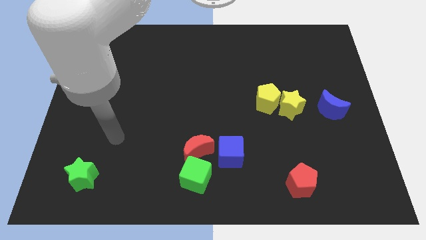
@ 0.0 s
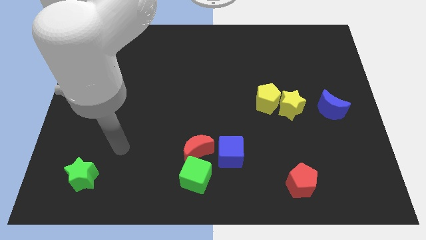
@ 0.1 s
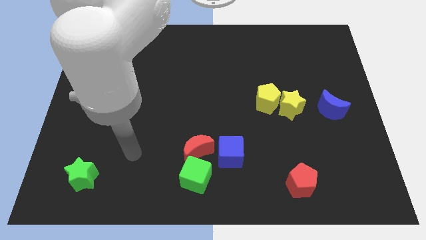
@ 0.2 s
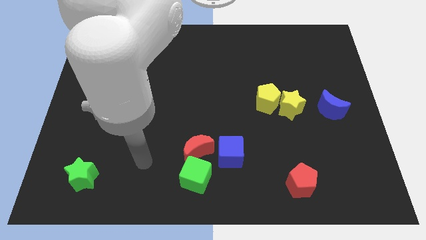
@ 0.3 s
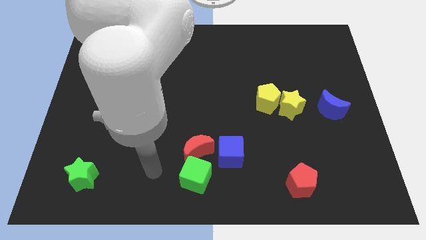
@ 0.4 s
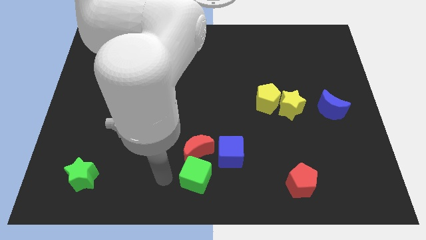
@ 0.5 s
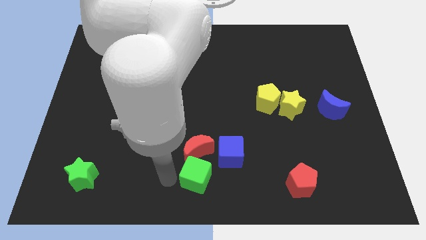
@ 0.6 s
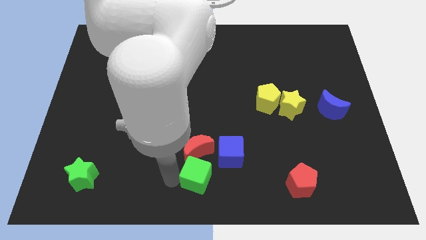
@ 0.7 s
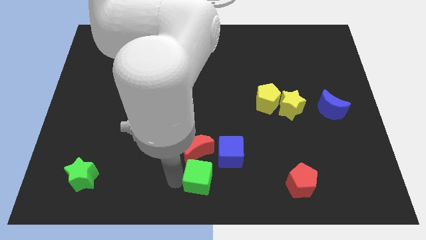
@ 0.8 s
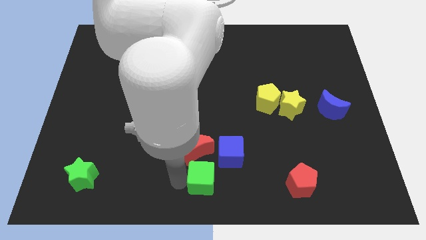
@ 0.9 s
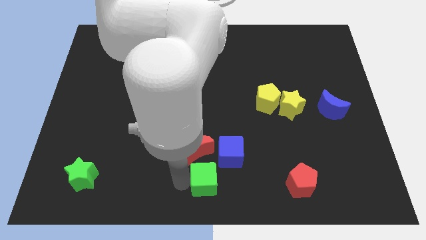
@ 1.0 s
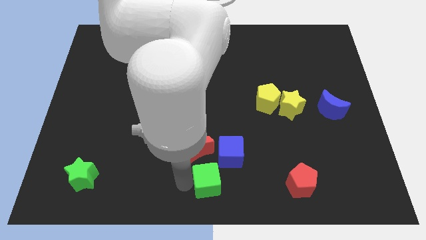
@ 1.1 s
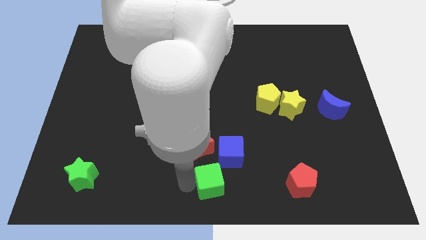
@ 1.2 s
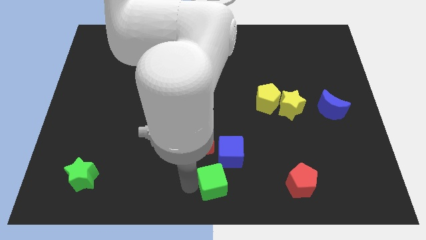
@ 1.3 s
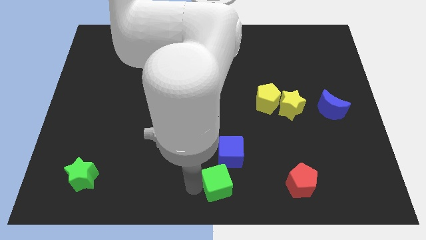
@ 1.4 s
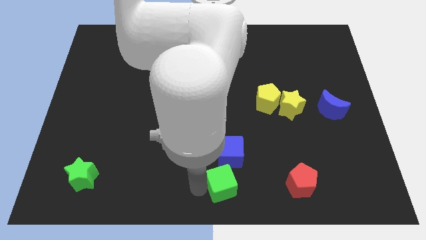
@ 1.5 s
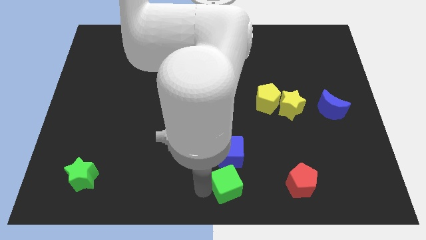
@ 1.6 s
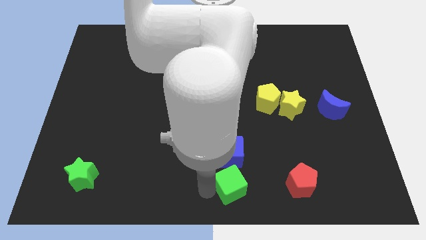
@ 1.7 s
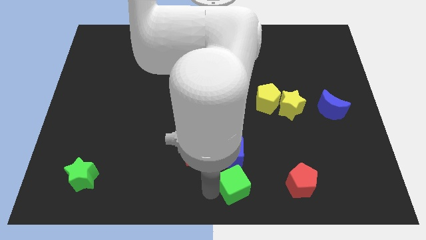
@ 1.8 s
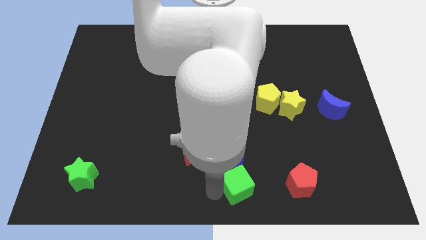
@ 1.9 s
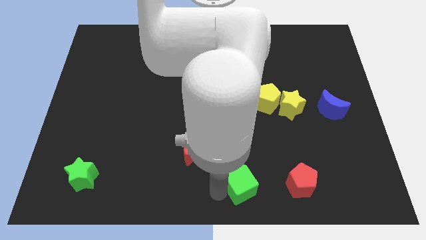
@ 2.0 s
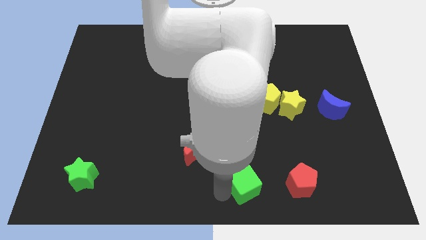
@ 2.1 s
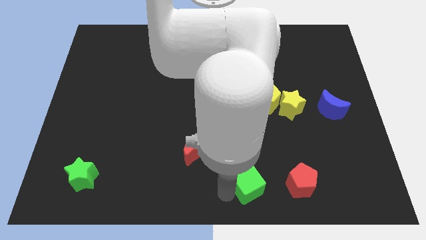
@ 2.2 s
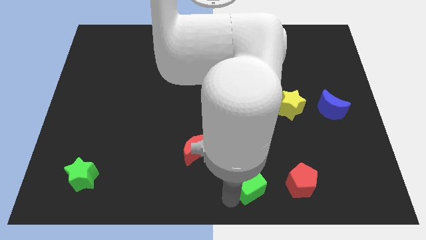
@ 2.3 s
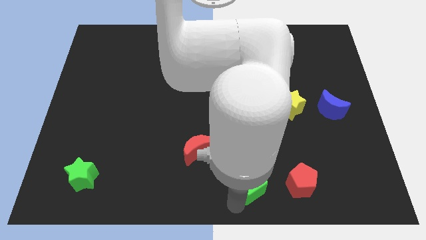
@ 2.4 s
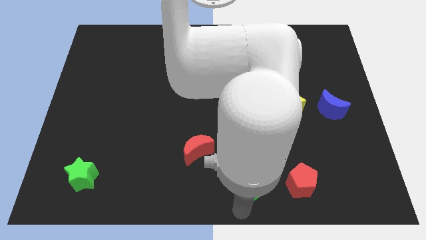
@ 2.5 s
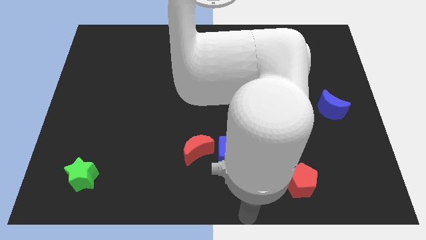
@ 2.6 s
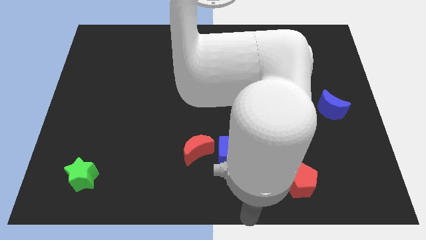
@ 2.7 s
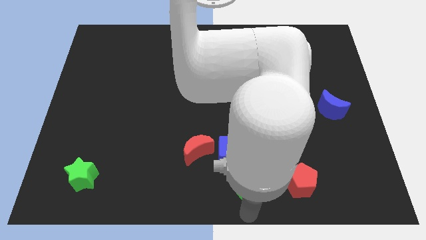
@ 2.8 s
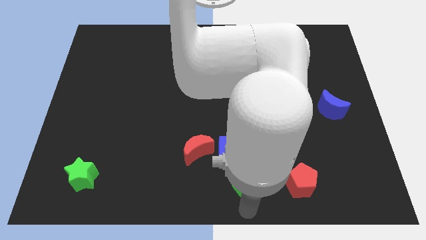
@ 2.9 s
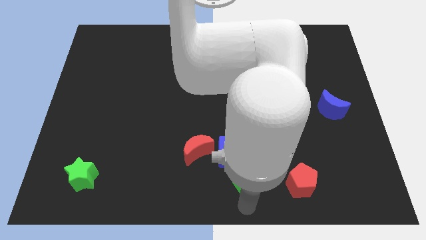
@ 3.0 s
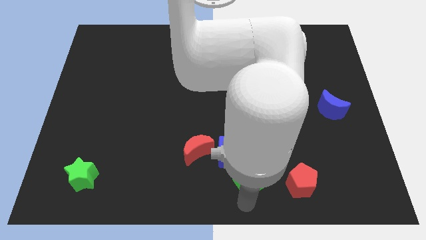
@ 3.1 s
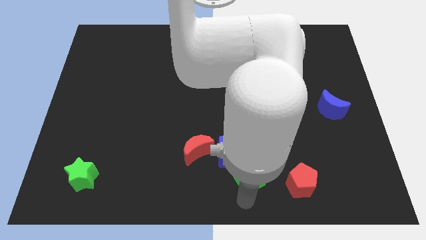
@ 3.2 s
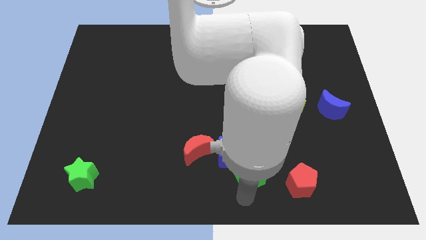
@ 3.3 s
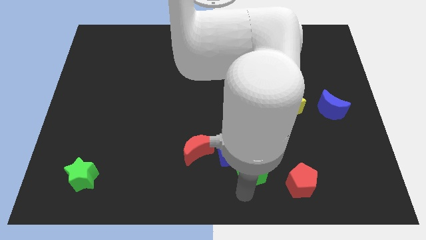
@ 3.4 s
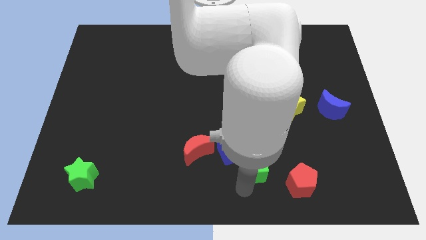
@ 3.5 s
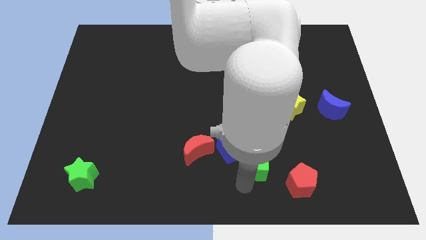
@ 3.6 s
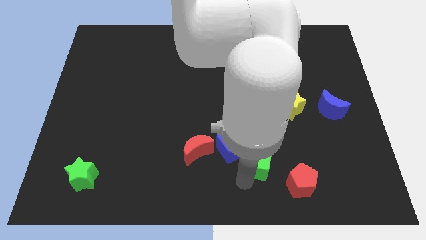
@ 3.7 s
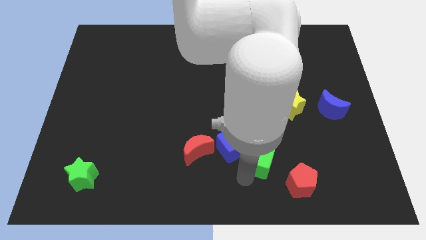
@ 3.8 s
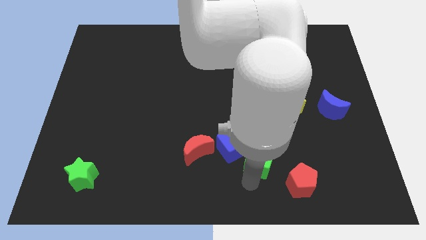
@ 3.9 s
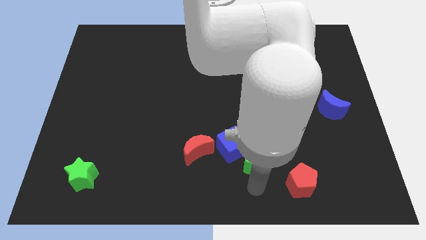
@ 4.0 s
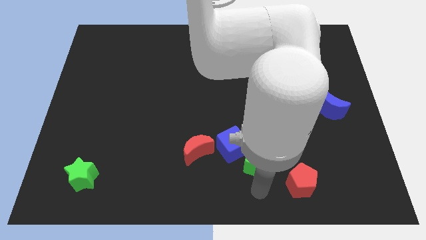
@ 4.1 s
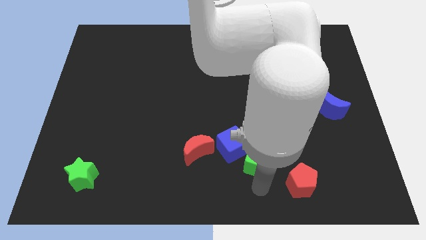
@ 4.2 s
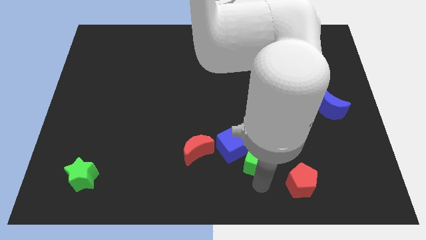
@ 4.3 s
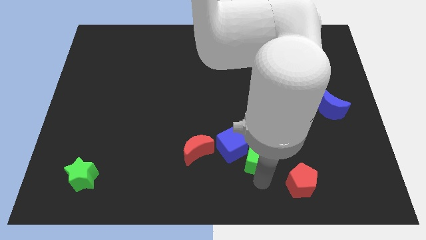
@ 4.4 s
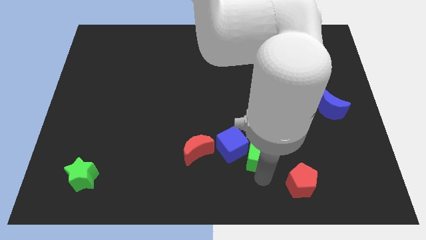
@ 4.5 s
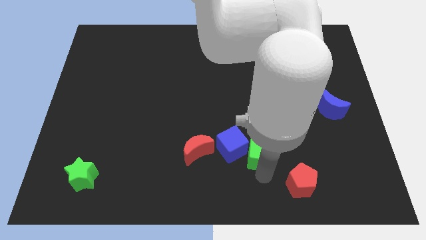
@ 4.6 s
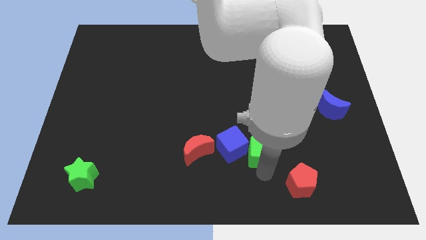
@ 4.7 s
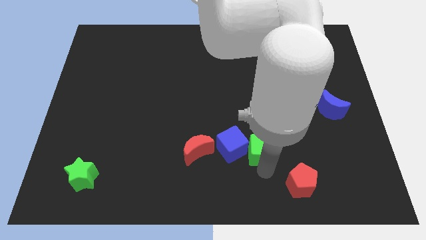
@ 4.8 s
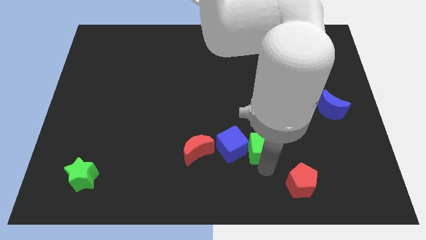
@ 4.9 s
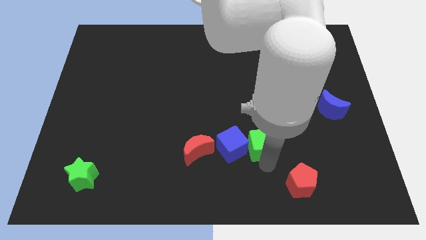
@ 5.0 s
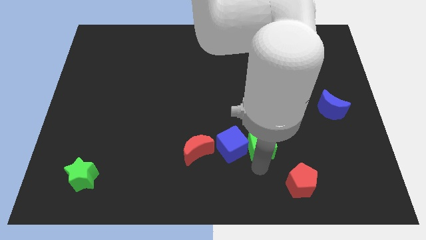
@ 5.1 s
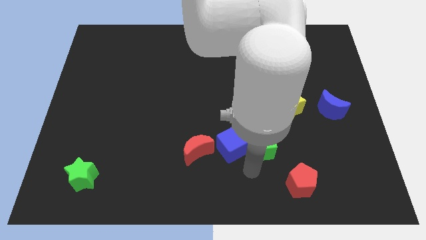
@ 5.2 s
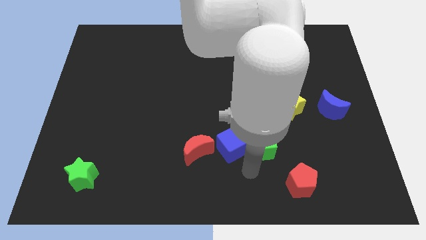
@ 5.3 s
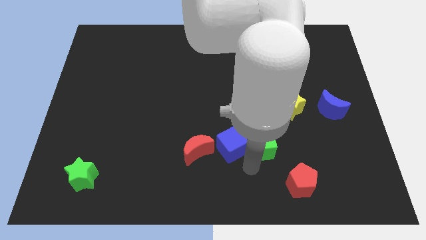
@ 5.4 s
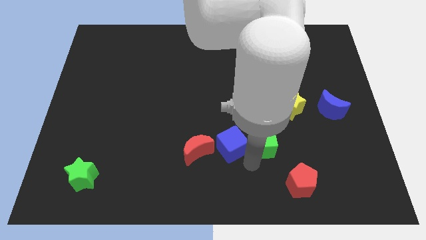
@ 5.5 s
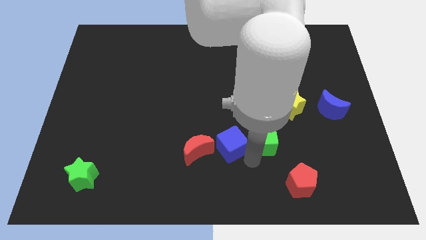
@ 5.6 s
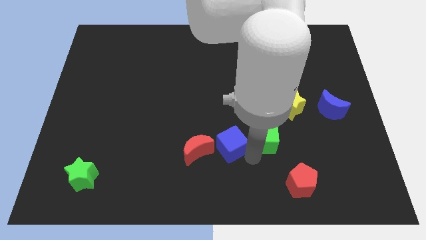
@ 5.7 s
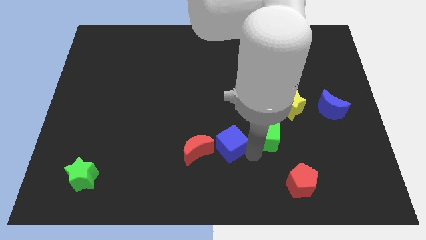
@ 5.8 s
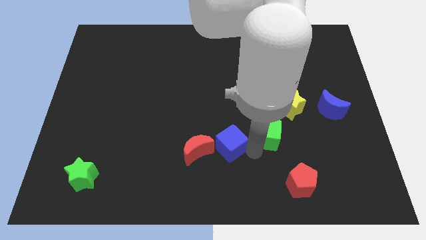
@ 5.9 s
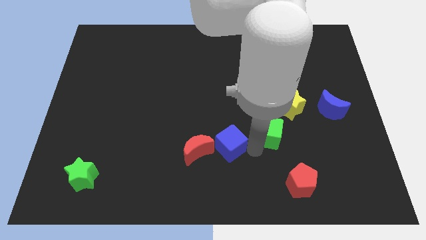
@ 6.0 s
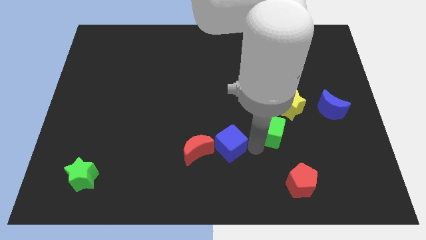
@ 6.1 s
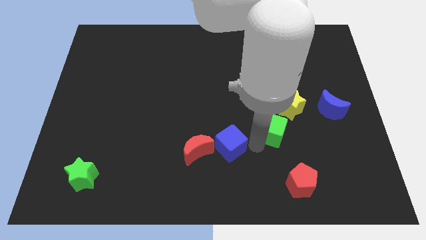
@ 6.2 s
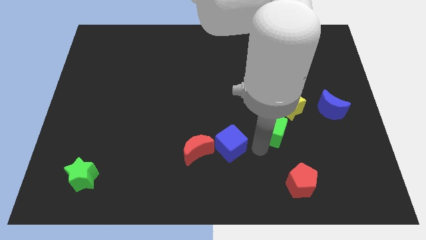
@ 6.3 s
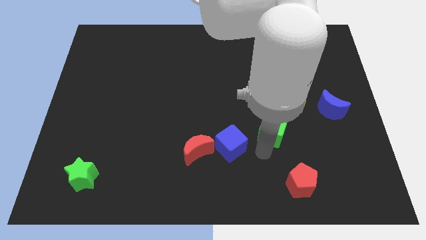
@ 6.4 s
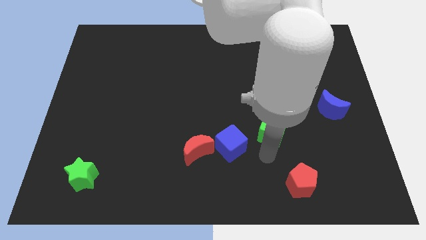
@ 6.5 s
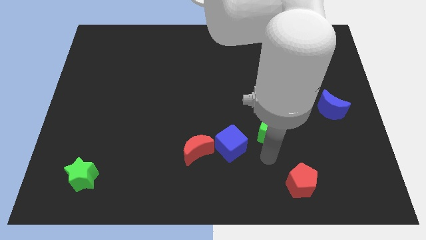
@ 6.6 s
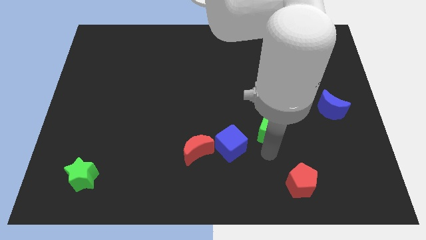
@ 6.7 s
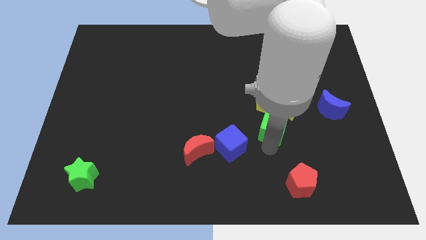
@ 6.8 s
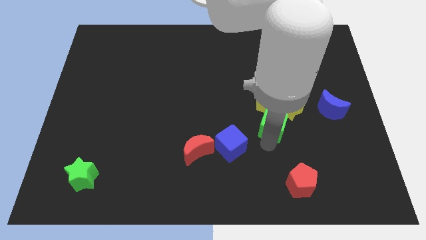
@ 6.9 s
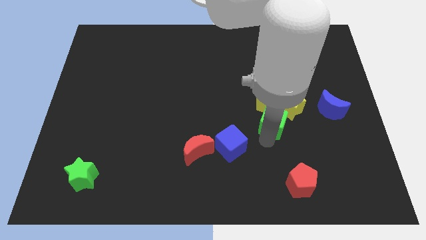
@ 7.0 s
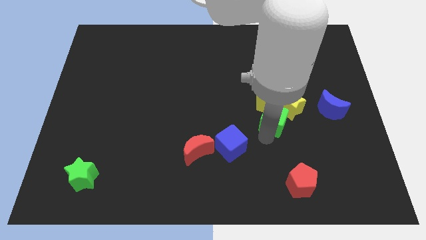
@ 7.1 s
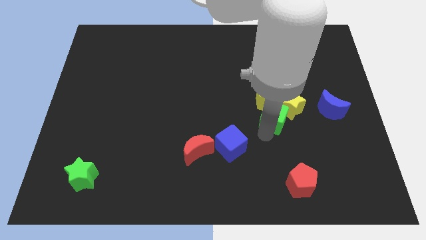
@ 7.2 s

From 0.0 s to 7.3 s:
put the green cube close to the yellow star

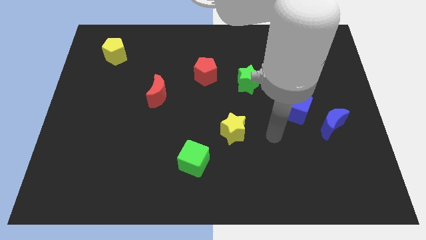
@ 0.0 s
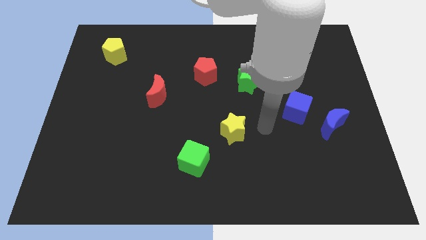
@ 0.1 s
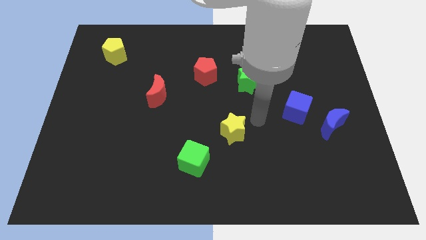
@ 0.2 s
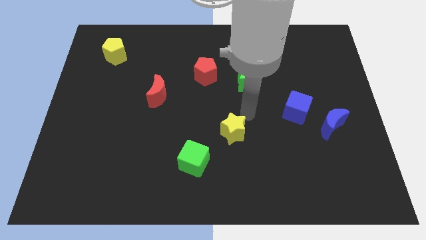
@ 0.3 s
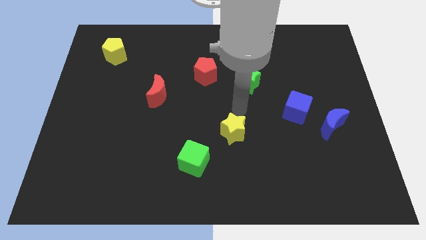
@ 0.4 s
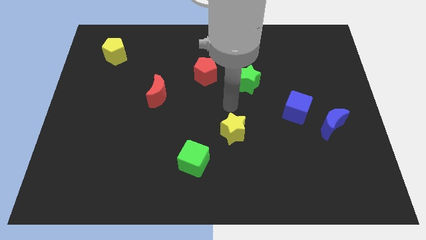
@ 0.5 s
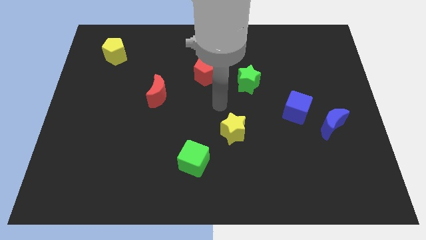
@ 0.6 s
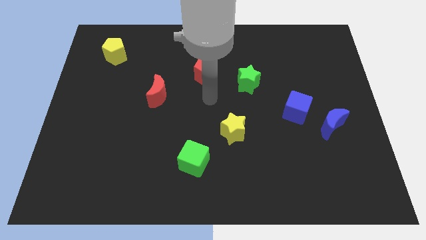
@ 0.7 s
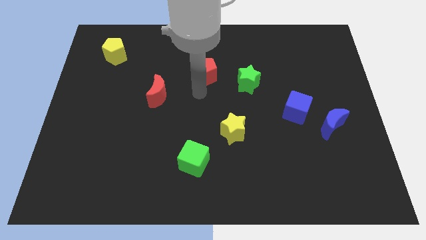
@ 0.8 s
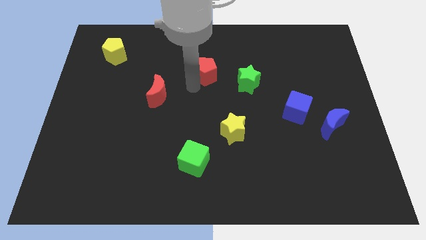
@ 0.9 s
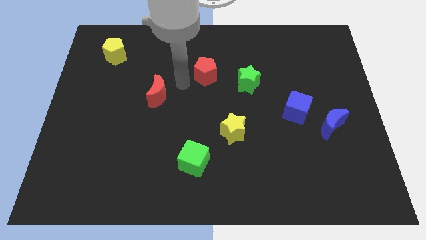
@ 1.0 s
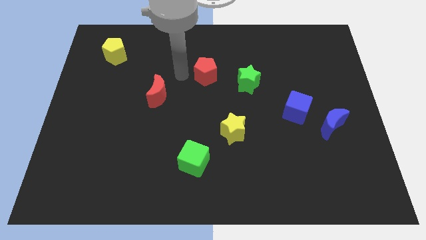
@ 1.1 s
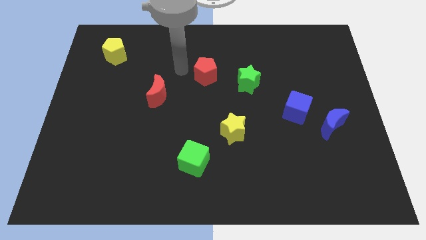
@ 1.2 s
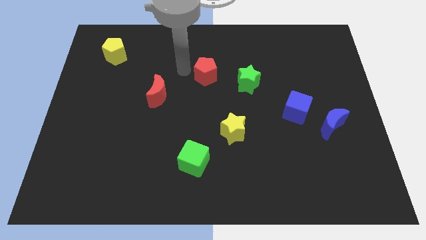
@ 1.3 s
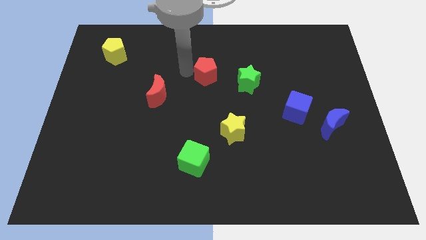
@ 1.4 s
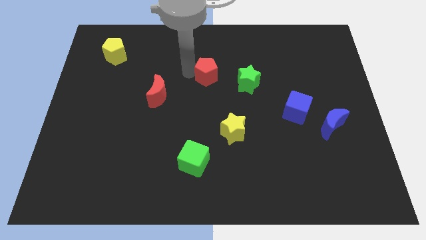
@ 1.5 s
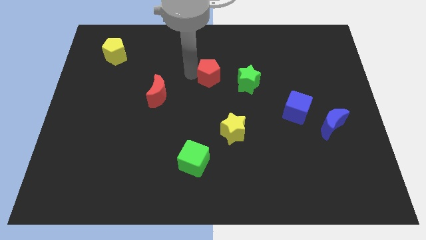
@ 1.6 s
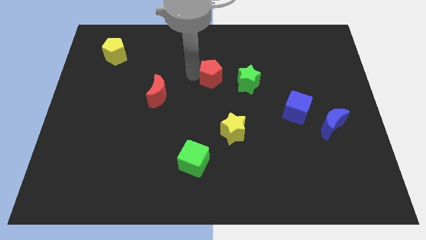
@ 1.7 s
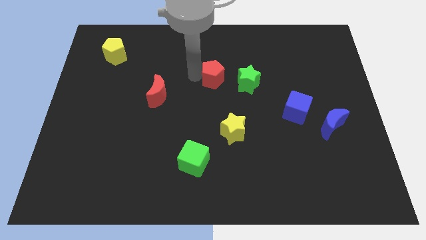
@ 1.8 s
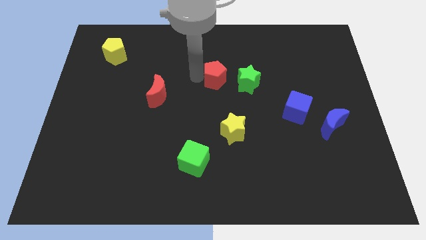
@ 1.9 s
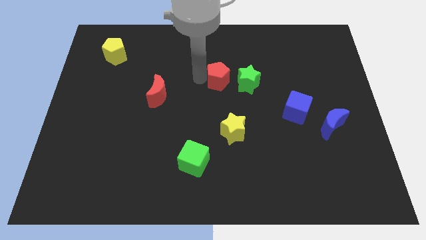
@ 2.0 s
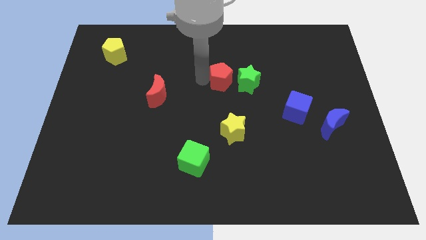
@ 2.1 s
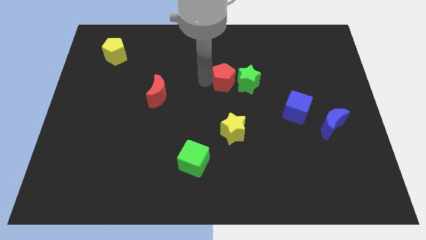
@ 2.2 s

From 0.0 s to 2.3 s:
put the red pentagon next to the green star
